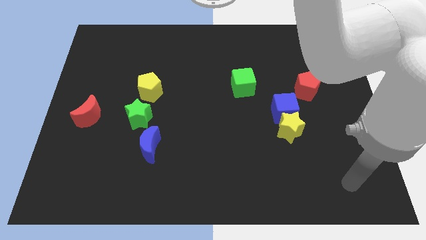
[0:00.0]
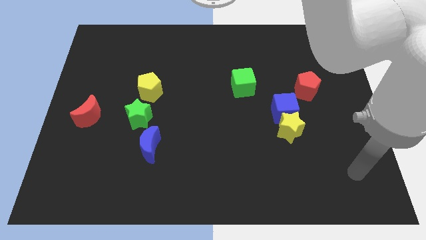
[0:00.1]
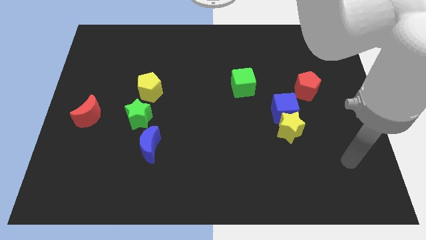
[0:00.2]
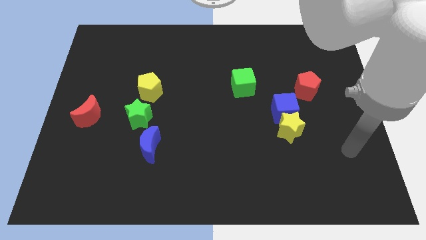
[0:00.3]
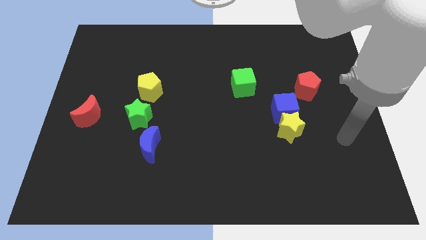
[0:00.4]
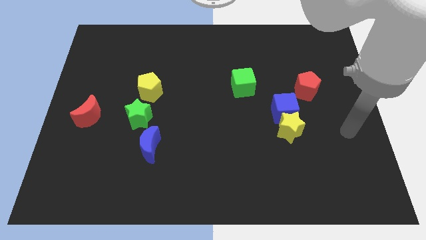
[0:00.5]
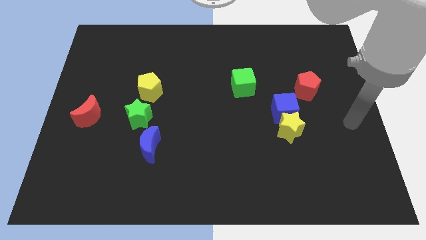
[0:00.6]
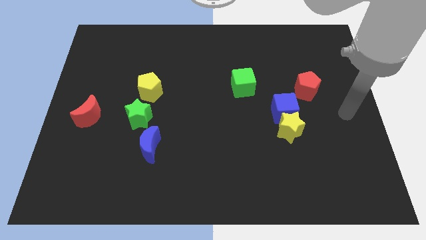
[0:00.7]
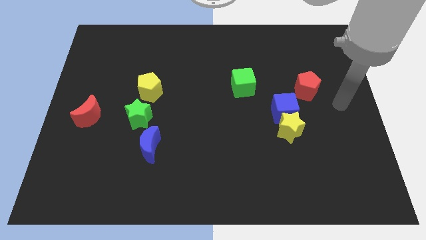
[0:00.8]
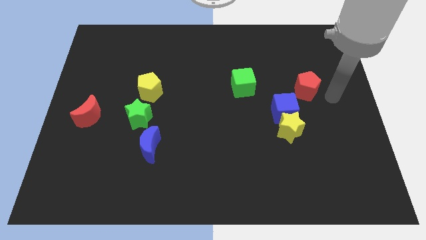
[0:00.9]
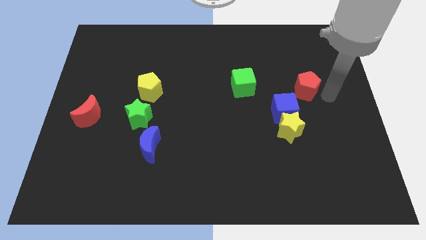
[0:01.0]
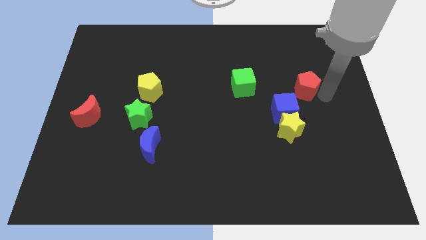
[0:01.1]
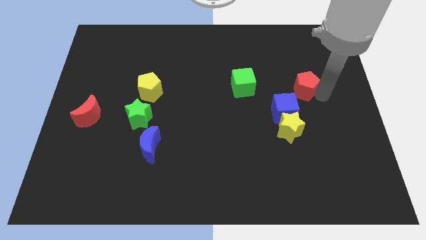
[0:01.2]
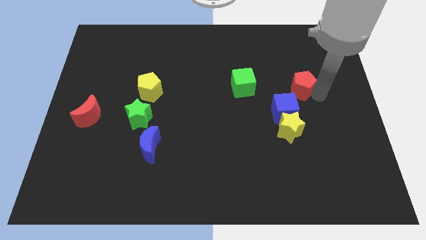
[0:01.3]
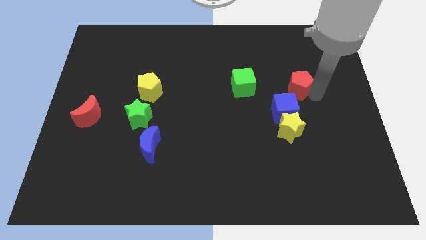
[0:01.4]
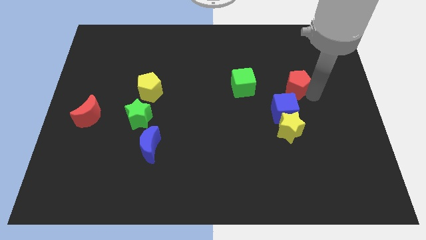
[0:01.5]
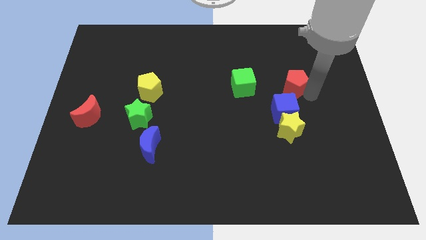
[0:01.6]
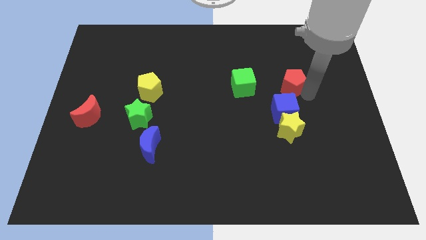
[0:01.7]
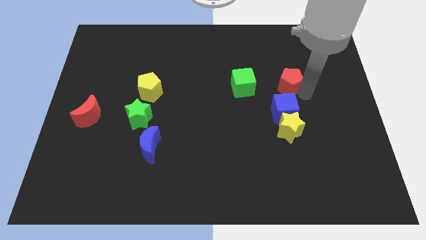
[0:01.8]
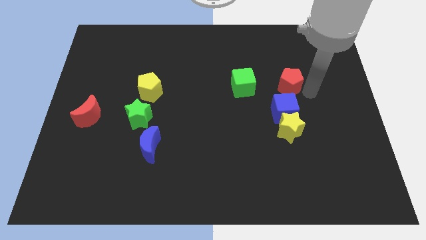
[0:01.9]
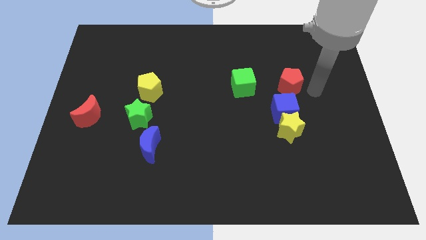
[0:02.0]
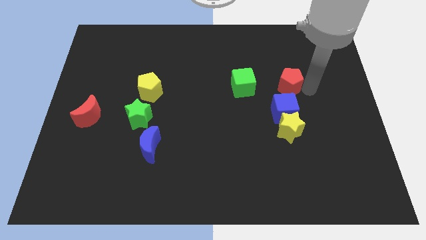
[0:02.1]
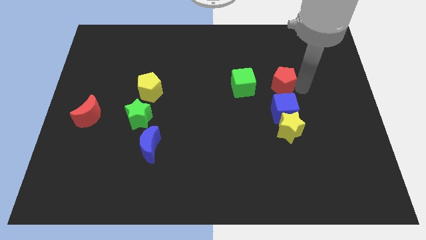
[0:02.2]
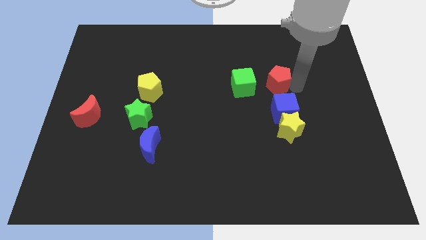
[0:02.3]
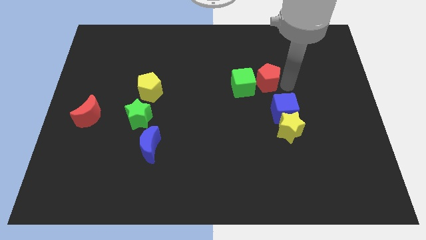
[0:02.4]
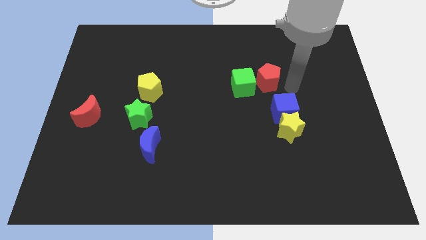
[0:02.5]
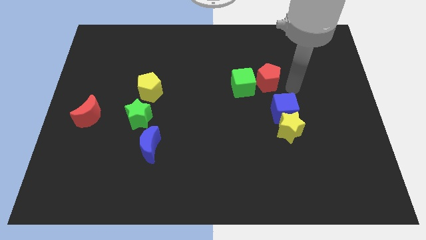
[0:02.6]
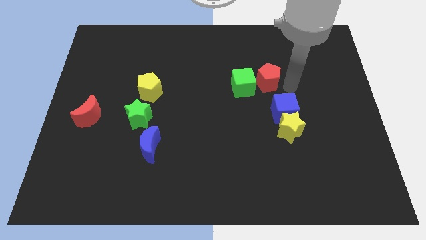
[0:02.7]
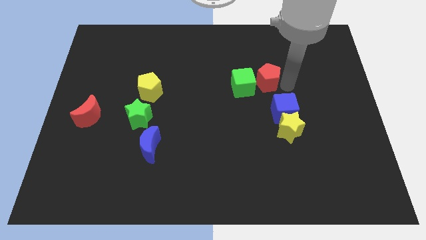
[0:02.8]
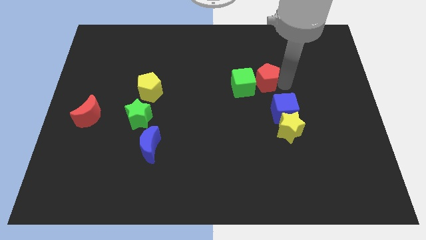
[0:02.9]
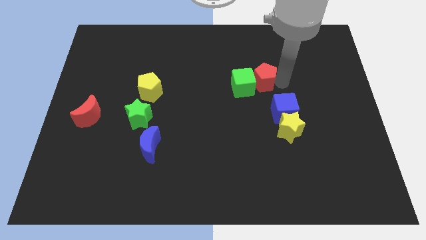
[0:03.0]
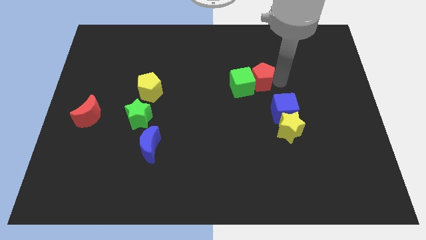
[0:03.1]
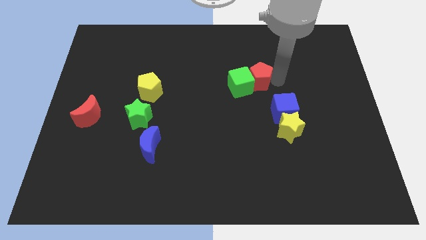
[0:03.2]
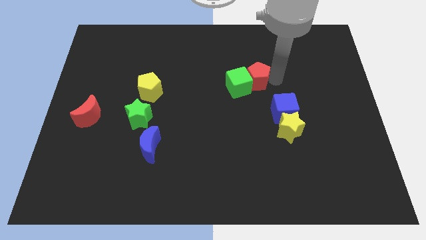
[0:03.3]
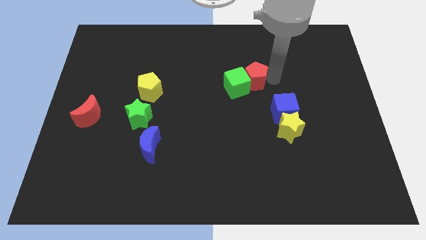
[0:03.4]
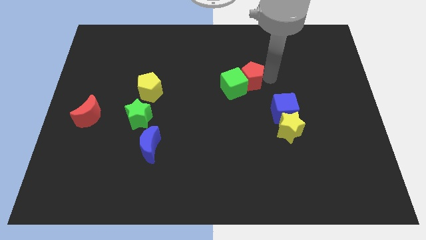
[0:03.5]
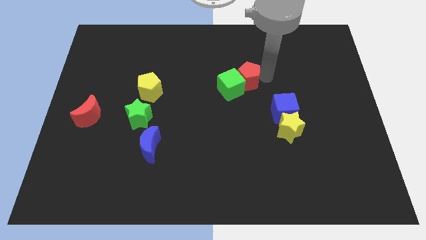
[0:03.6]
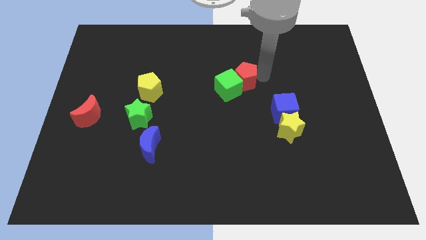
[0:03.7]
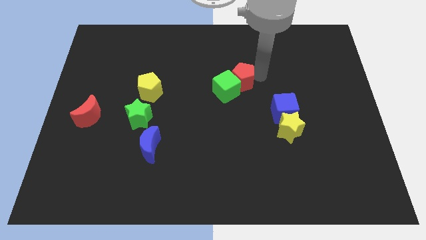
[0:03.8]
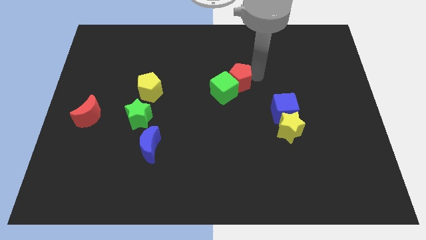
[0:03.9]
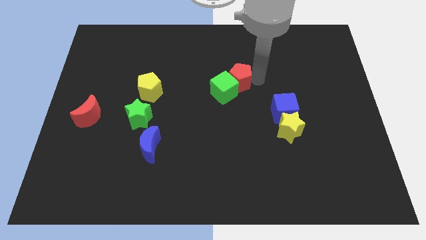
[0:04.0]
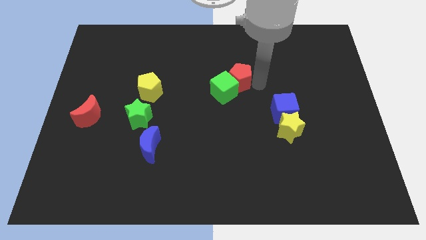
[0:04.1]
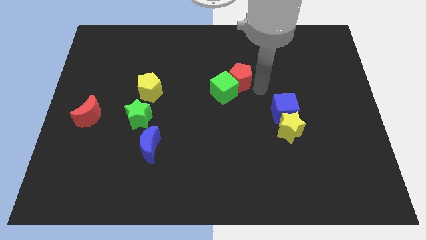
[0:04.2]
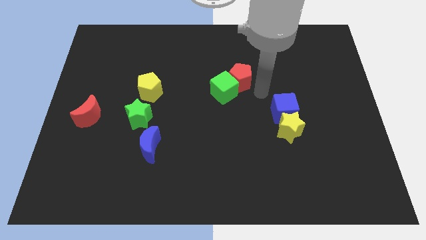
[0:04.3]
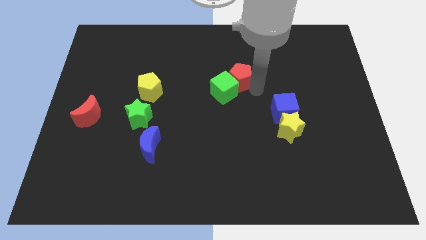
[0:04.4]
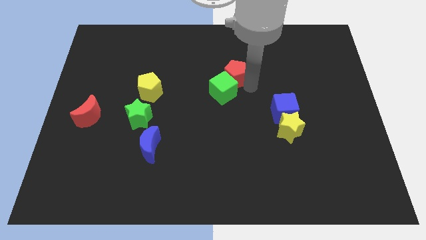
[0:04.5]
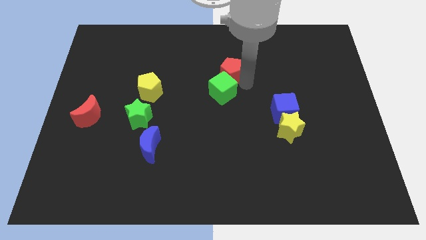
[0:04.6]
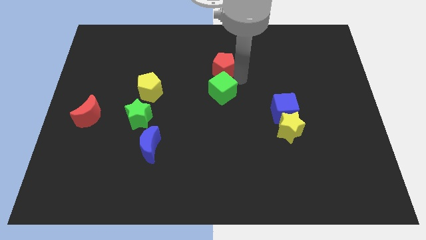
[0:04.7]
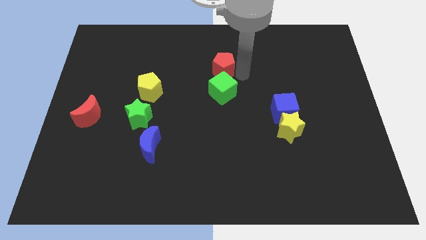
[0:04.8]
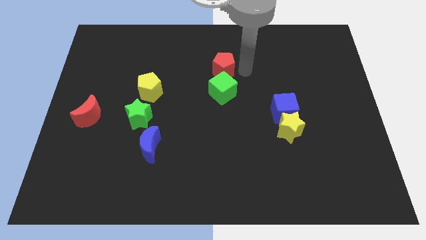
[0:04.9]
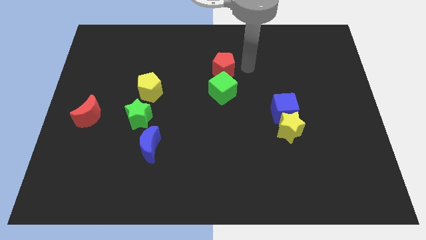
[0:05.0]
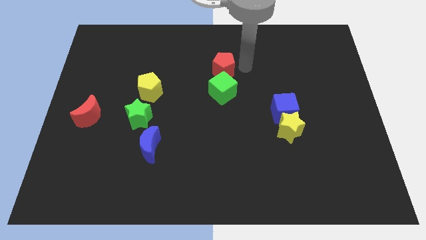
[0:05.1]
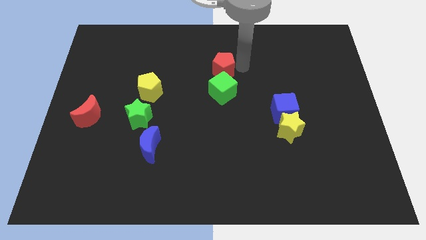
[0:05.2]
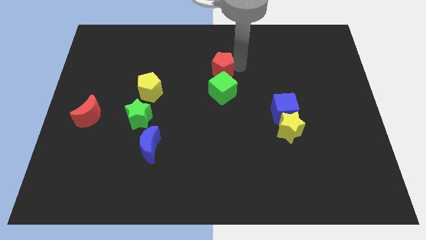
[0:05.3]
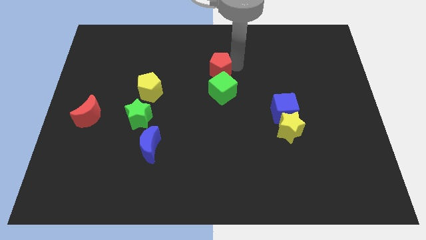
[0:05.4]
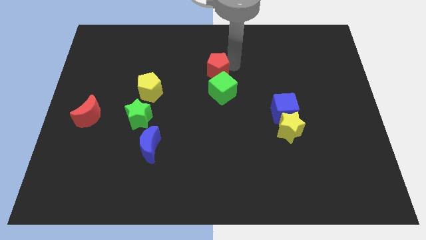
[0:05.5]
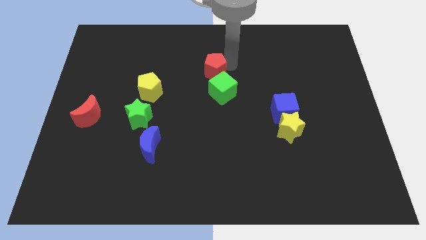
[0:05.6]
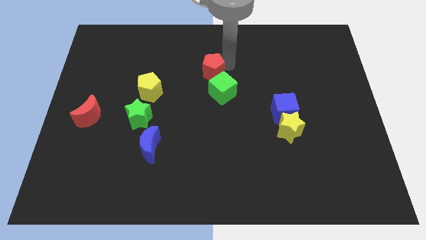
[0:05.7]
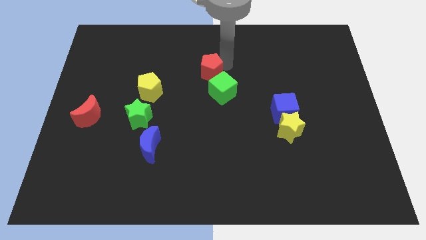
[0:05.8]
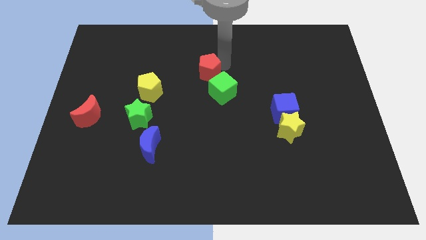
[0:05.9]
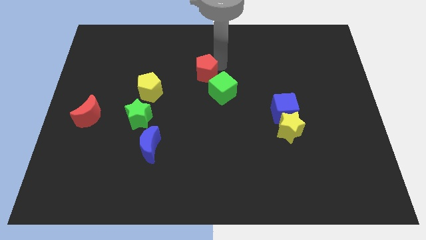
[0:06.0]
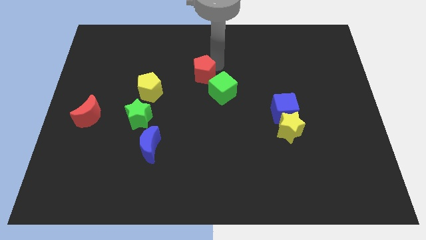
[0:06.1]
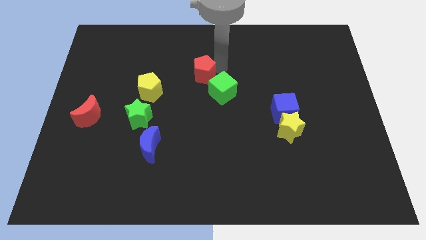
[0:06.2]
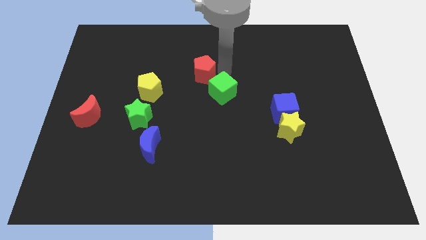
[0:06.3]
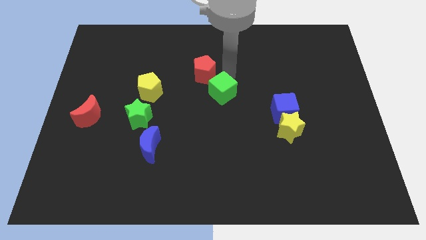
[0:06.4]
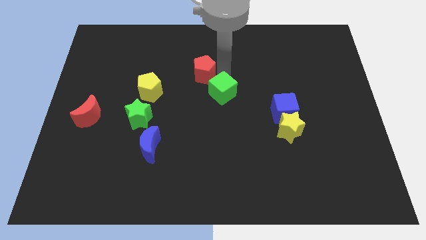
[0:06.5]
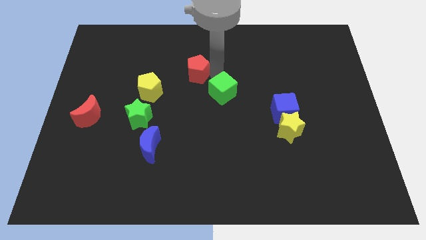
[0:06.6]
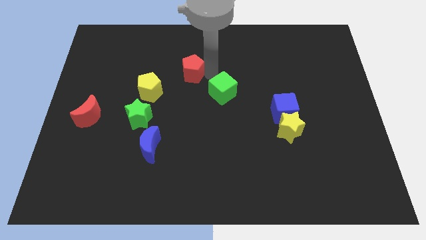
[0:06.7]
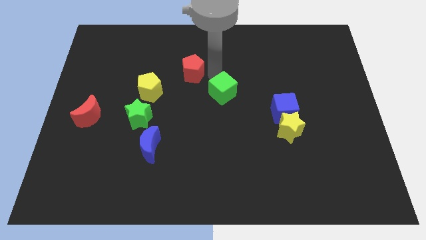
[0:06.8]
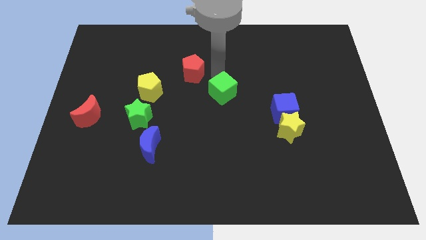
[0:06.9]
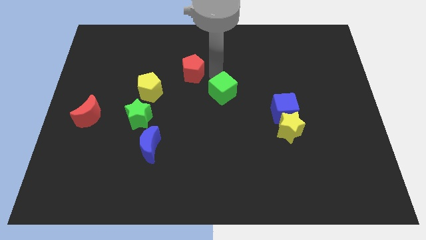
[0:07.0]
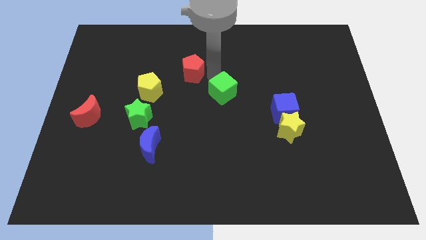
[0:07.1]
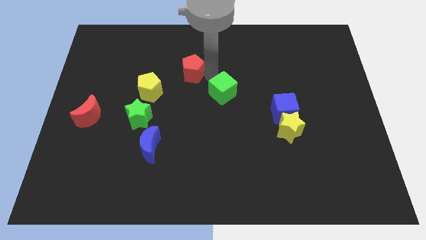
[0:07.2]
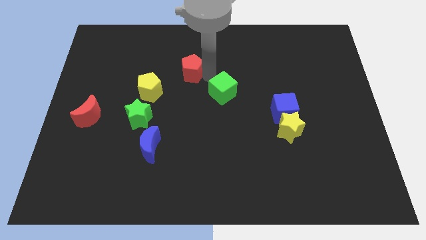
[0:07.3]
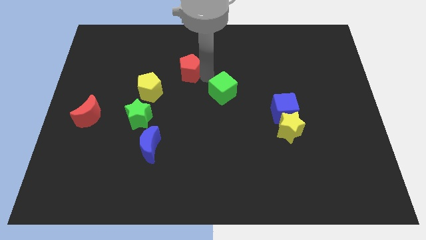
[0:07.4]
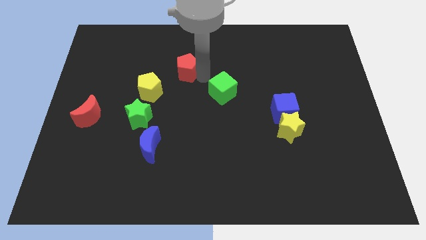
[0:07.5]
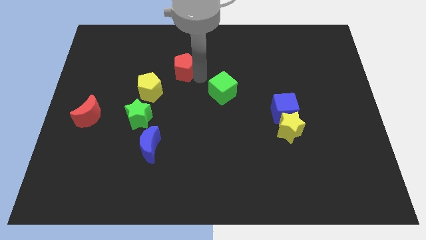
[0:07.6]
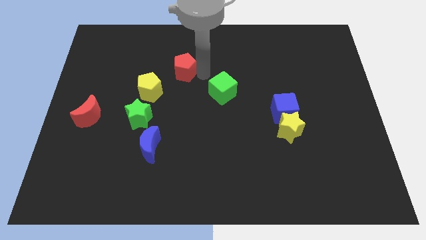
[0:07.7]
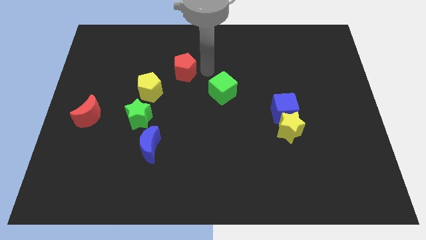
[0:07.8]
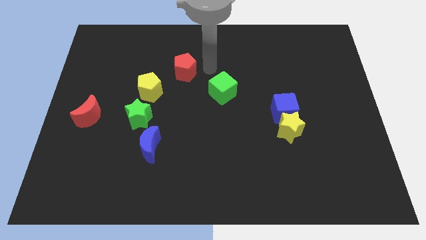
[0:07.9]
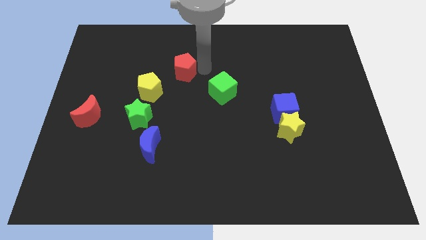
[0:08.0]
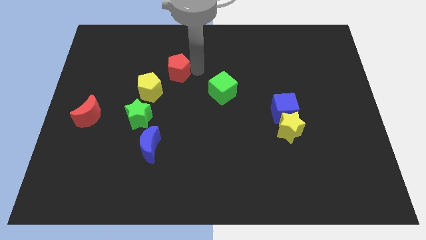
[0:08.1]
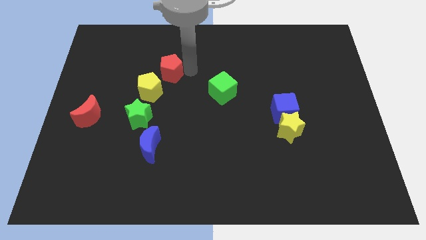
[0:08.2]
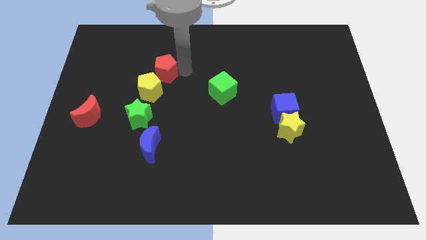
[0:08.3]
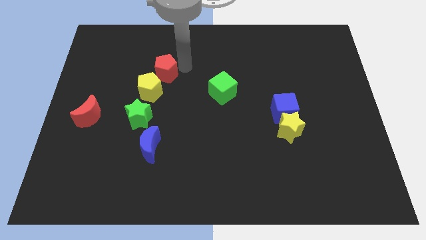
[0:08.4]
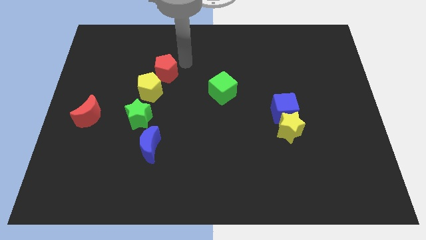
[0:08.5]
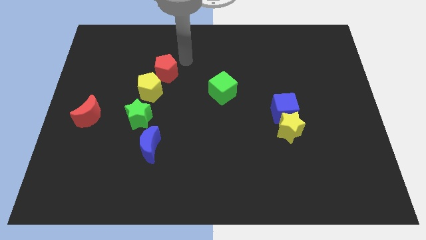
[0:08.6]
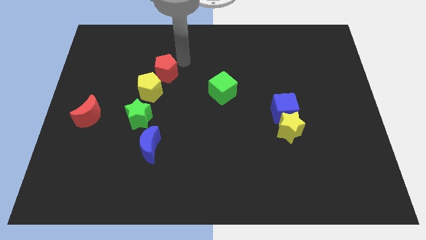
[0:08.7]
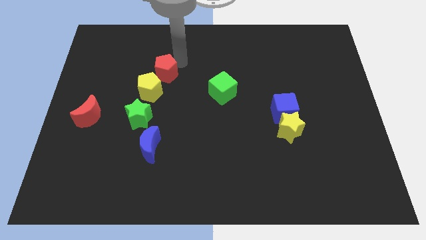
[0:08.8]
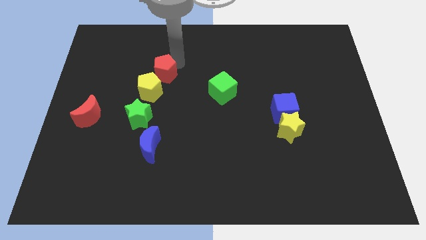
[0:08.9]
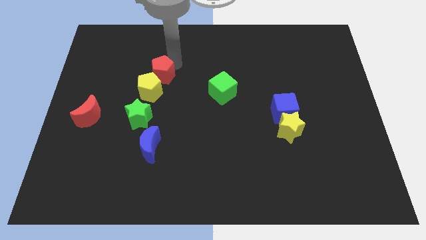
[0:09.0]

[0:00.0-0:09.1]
move the red pentagon above the green star
